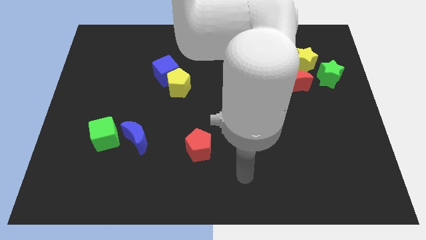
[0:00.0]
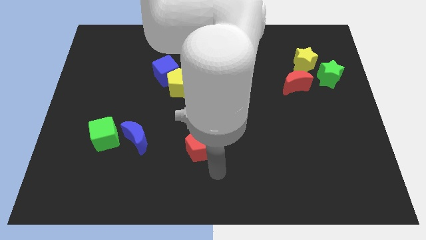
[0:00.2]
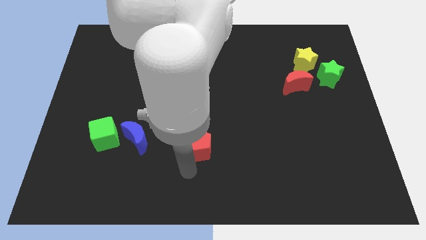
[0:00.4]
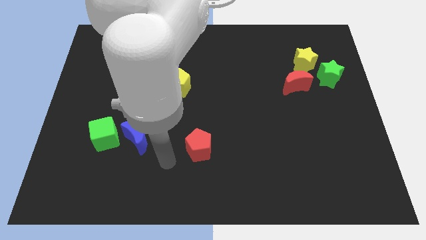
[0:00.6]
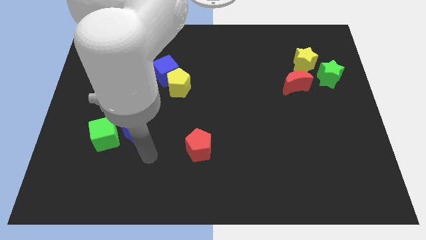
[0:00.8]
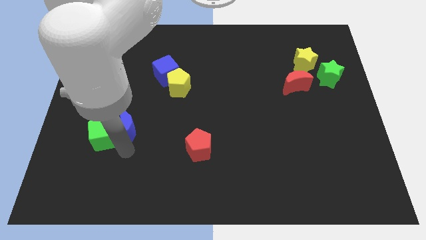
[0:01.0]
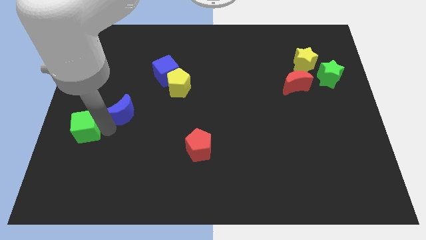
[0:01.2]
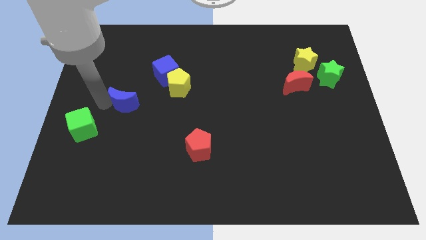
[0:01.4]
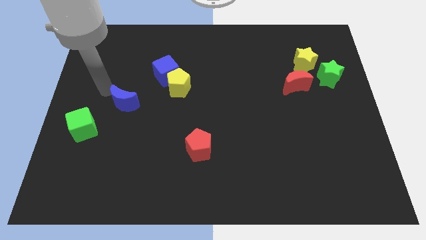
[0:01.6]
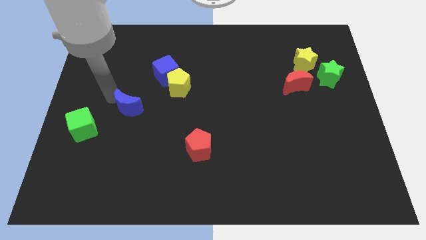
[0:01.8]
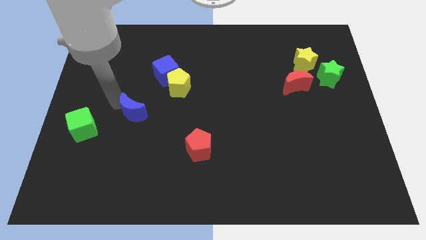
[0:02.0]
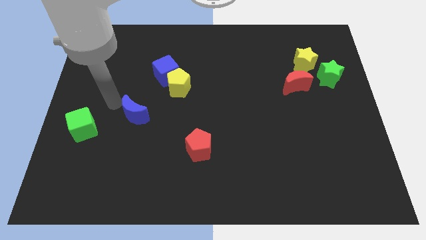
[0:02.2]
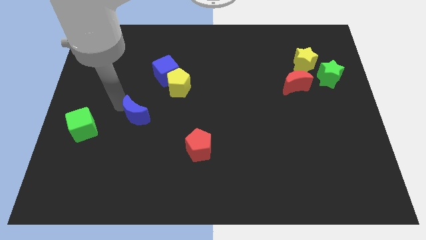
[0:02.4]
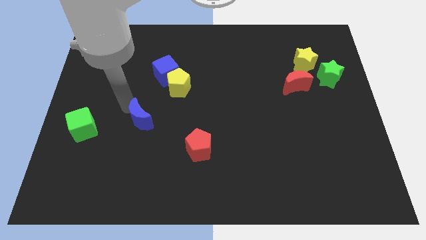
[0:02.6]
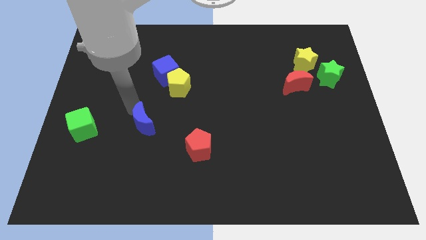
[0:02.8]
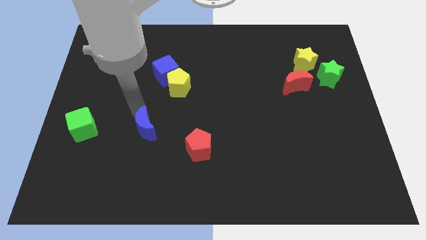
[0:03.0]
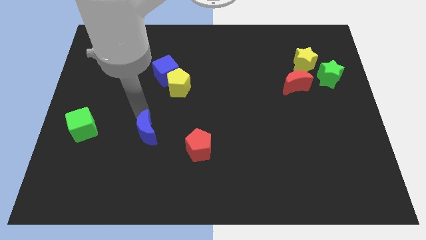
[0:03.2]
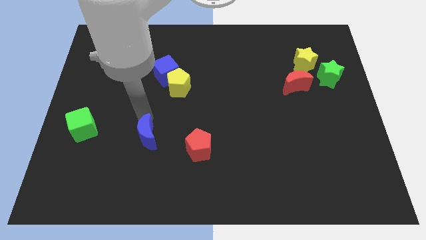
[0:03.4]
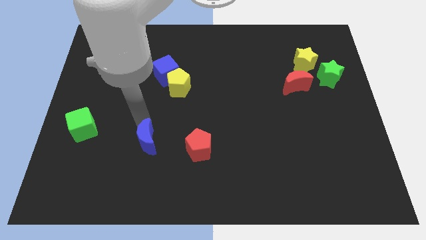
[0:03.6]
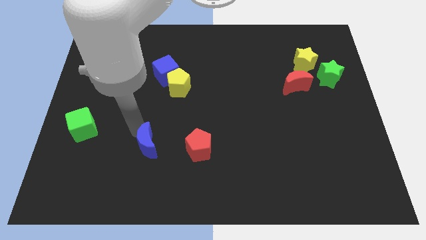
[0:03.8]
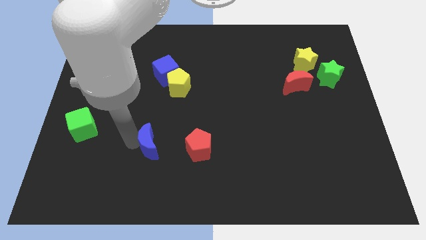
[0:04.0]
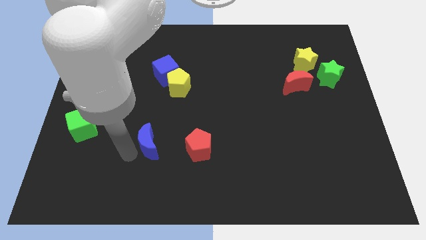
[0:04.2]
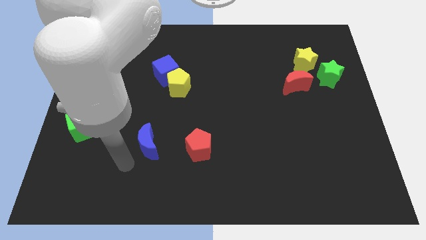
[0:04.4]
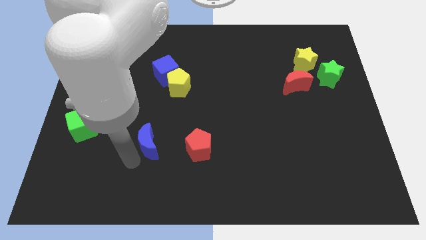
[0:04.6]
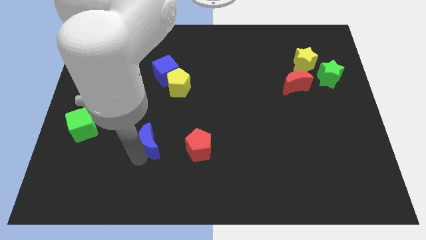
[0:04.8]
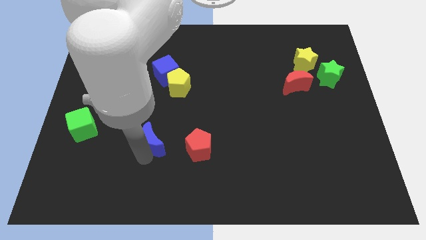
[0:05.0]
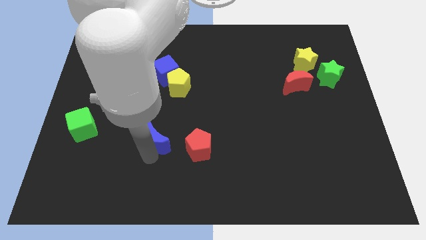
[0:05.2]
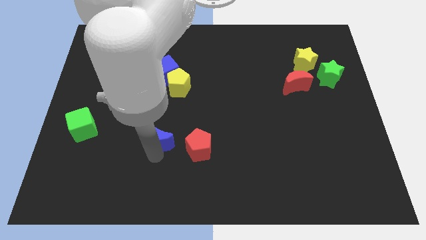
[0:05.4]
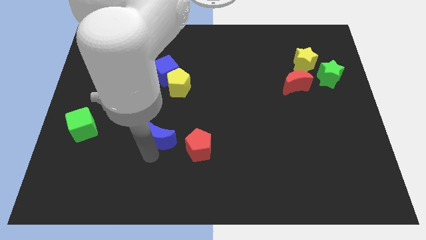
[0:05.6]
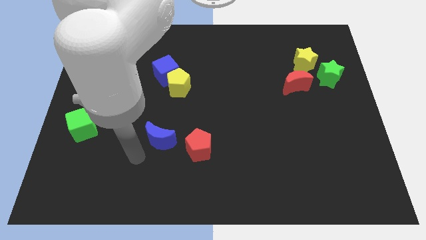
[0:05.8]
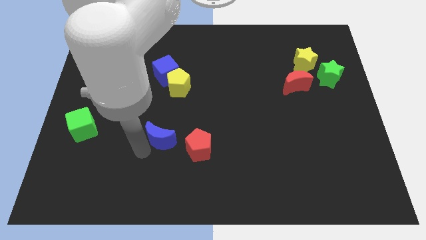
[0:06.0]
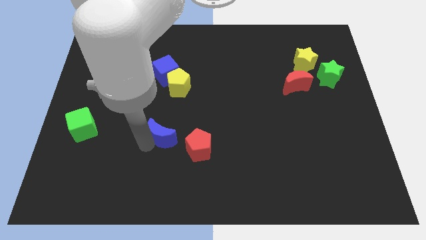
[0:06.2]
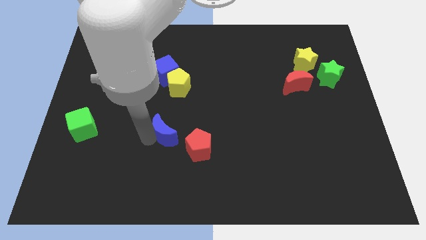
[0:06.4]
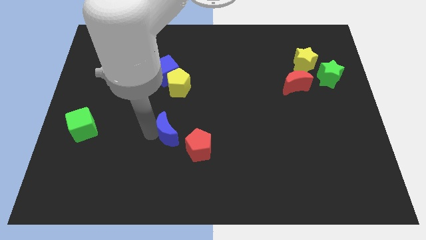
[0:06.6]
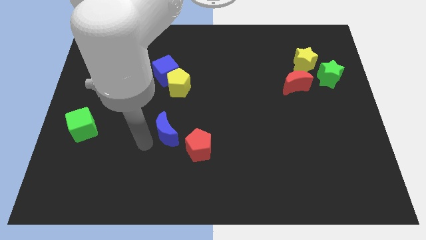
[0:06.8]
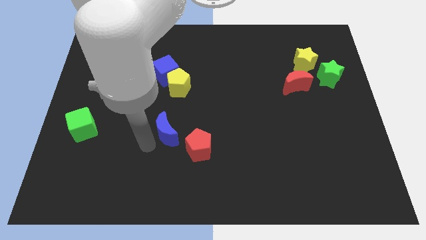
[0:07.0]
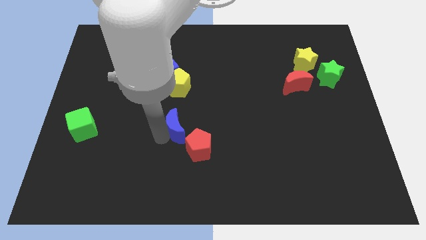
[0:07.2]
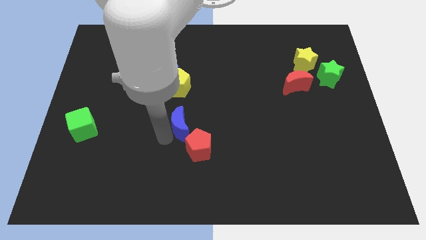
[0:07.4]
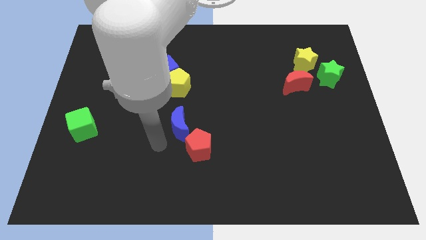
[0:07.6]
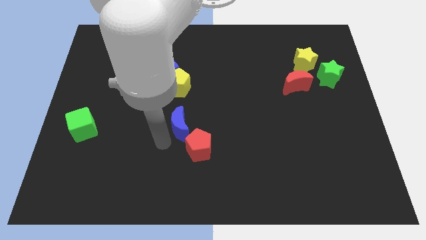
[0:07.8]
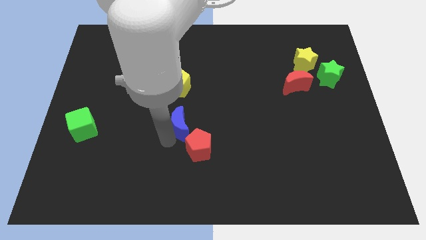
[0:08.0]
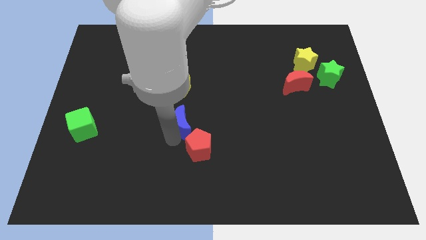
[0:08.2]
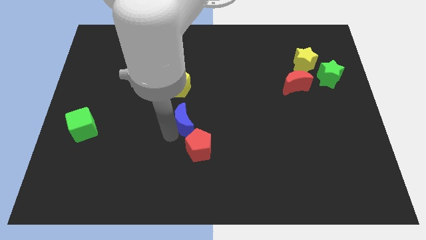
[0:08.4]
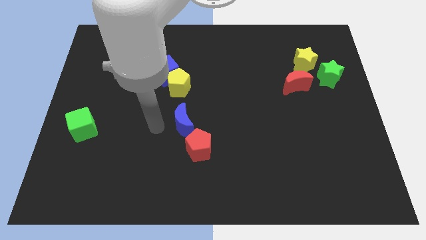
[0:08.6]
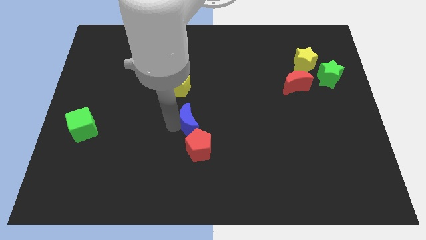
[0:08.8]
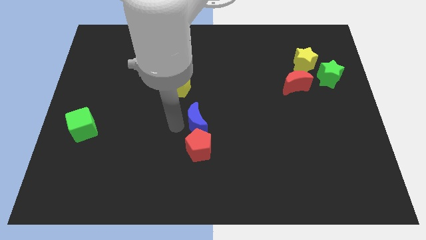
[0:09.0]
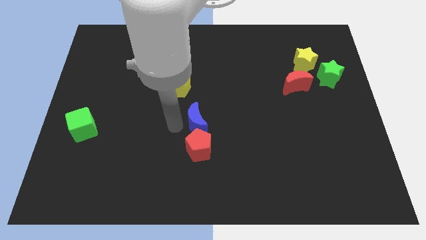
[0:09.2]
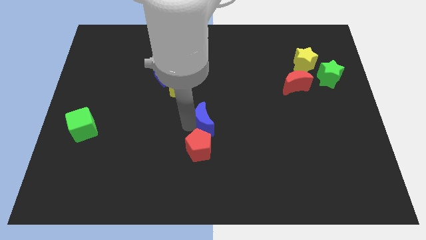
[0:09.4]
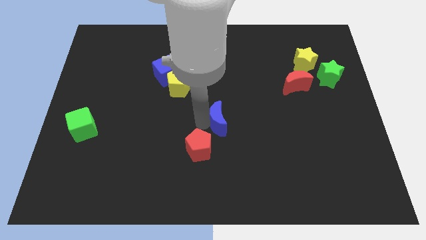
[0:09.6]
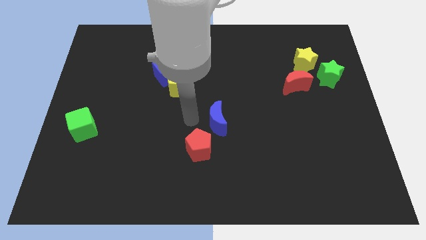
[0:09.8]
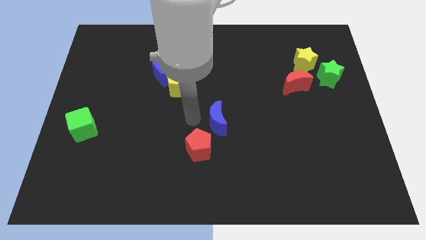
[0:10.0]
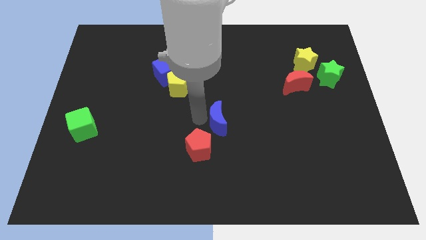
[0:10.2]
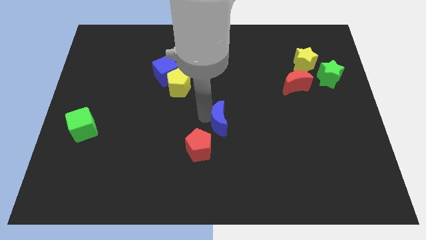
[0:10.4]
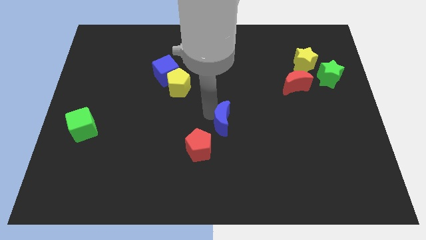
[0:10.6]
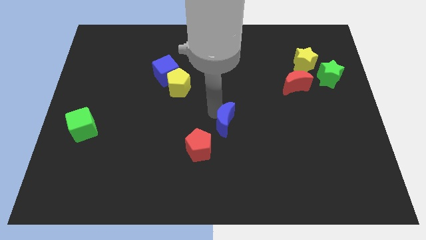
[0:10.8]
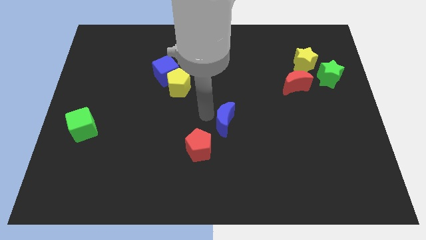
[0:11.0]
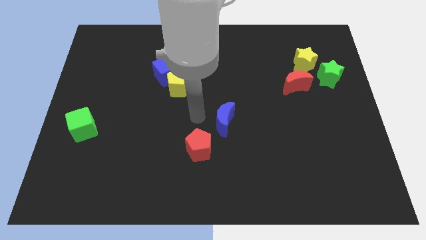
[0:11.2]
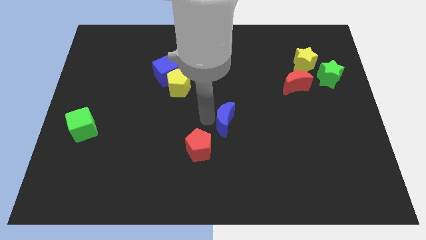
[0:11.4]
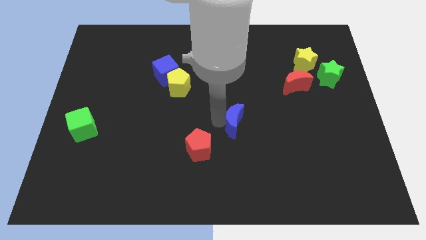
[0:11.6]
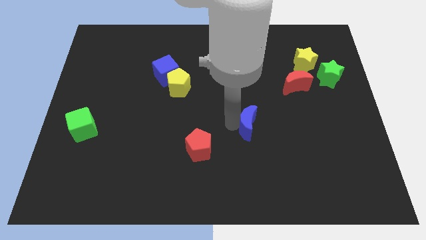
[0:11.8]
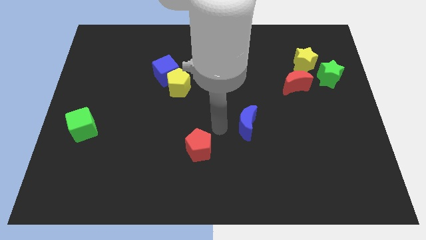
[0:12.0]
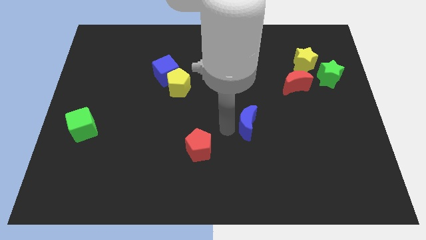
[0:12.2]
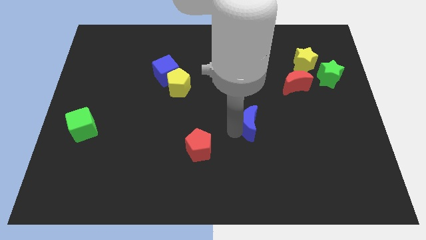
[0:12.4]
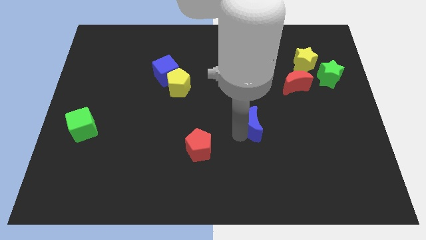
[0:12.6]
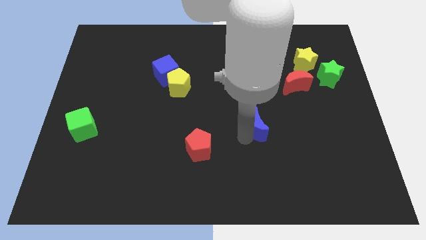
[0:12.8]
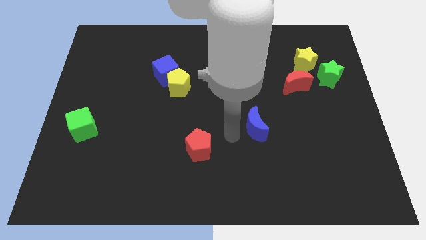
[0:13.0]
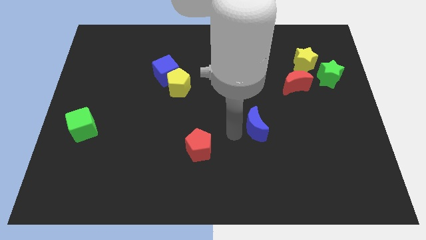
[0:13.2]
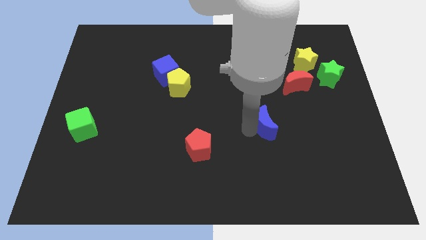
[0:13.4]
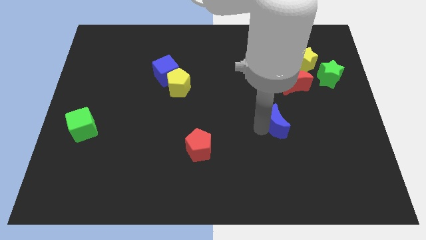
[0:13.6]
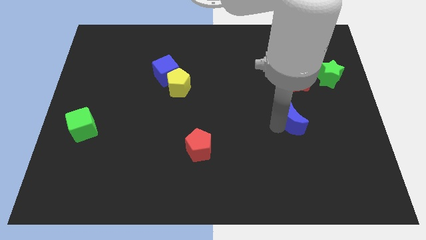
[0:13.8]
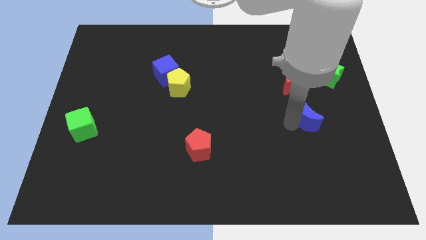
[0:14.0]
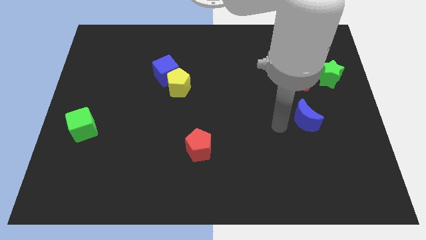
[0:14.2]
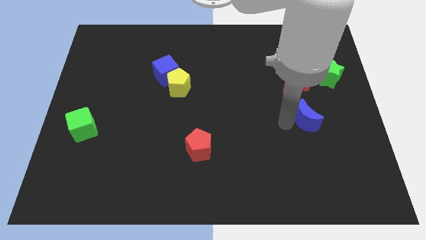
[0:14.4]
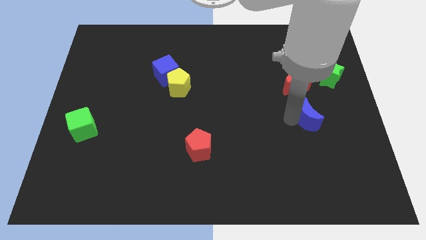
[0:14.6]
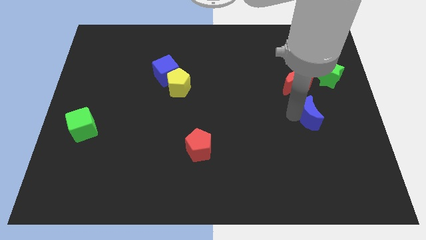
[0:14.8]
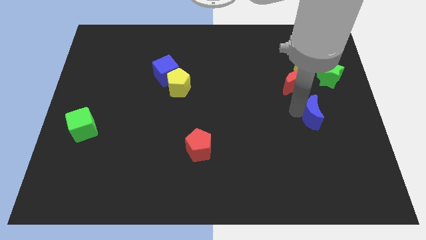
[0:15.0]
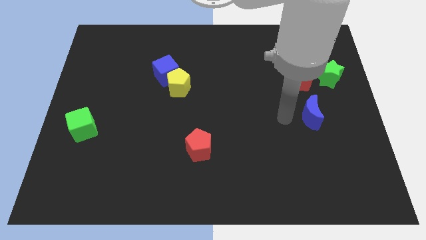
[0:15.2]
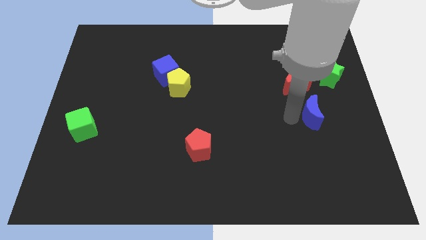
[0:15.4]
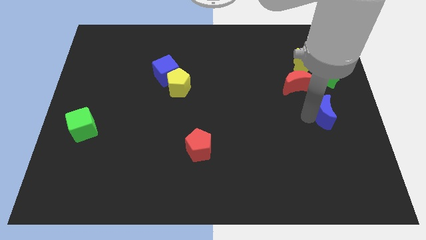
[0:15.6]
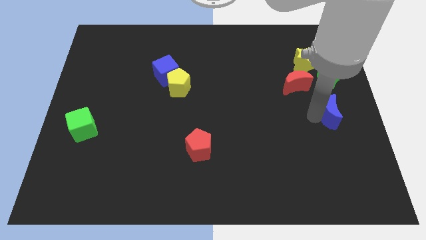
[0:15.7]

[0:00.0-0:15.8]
push the blue moon to the right side
